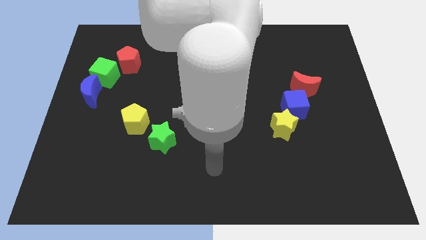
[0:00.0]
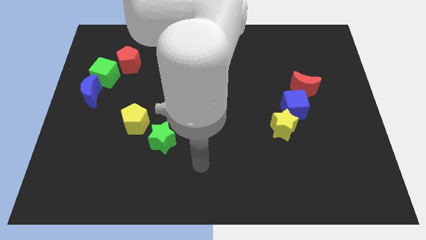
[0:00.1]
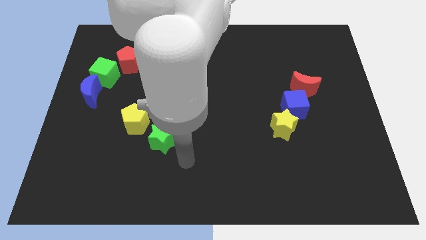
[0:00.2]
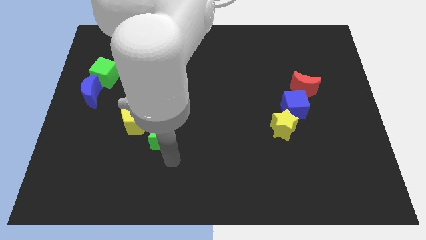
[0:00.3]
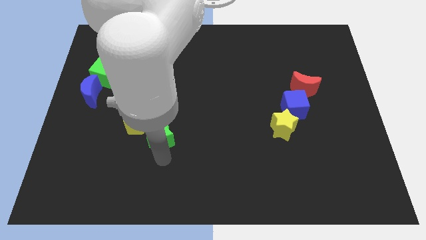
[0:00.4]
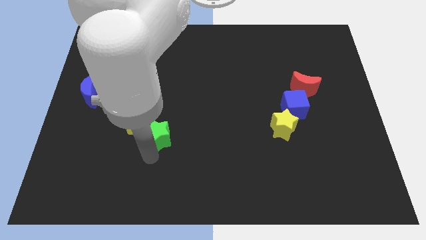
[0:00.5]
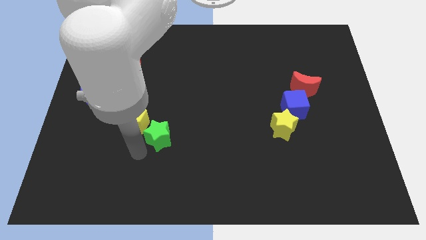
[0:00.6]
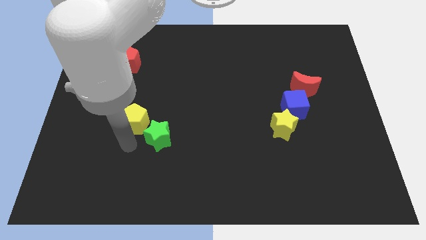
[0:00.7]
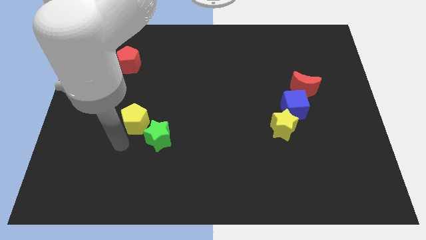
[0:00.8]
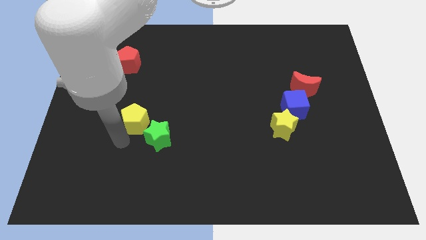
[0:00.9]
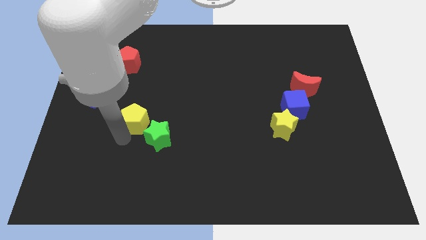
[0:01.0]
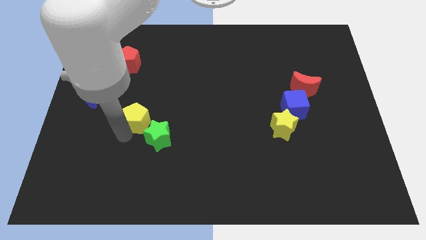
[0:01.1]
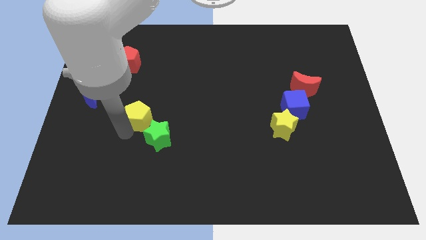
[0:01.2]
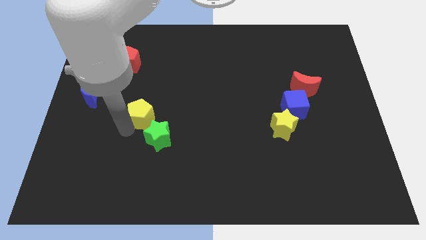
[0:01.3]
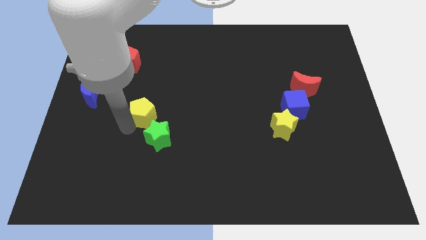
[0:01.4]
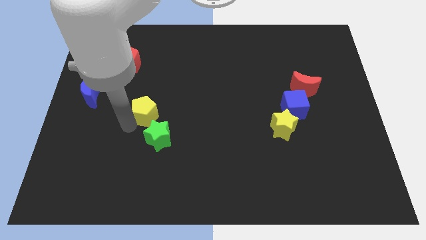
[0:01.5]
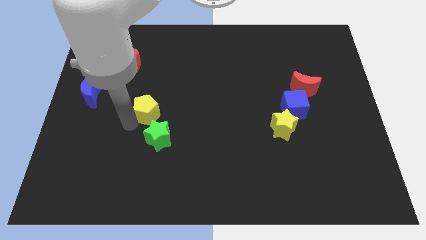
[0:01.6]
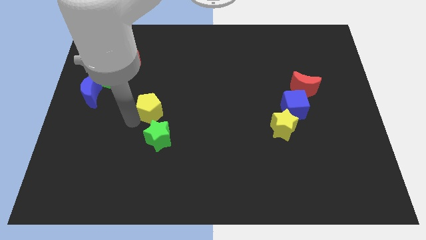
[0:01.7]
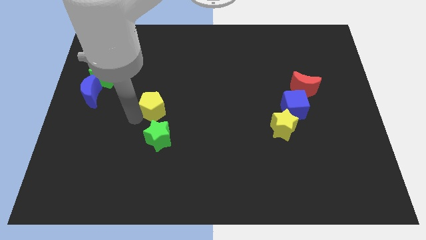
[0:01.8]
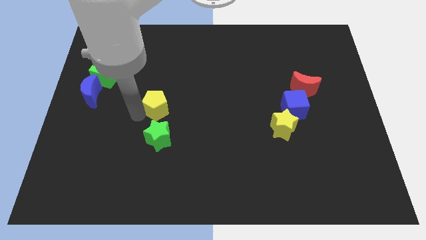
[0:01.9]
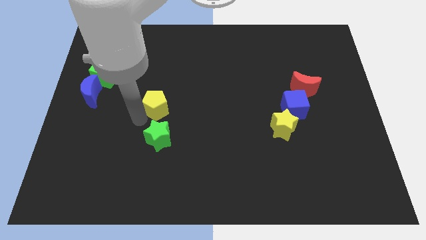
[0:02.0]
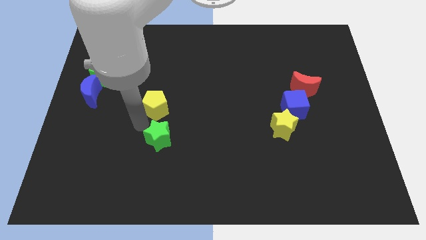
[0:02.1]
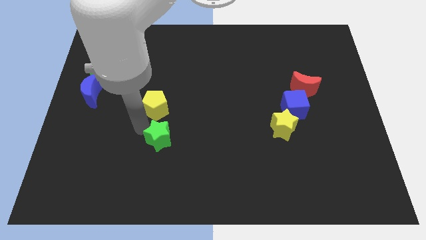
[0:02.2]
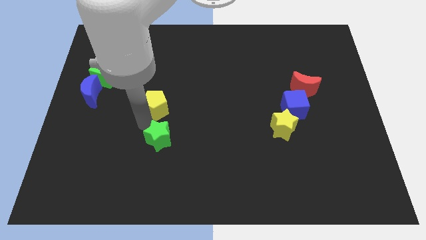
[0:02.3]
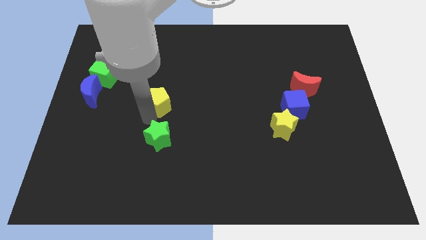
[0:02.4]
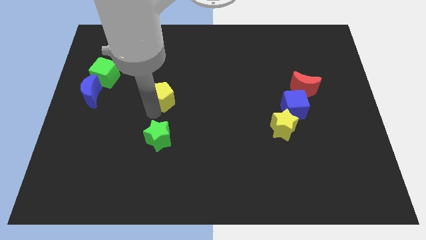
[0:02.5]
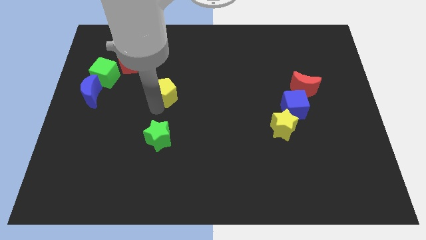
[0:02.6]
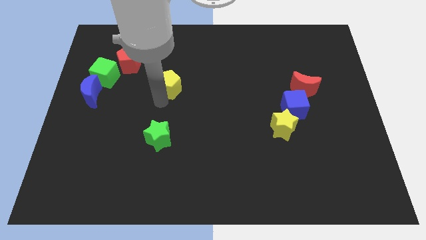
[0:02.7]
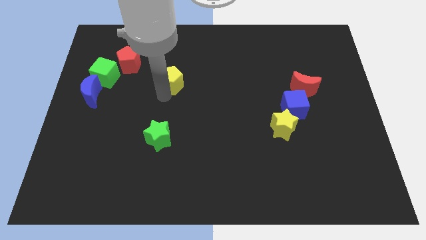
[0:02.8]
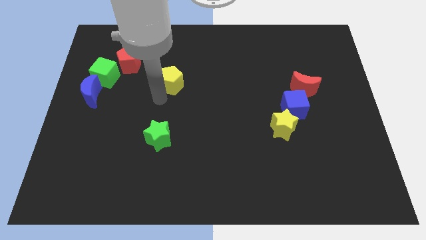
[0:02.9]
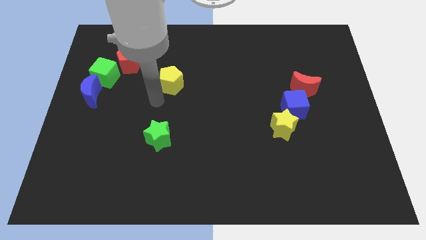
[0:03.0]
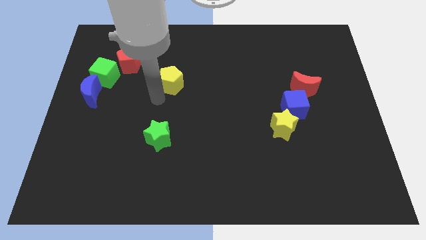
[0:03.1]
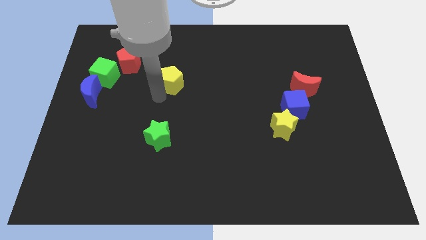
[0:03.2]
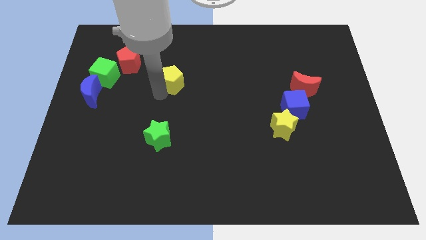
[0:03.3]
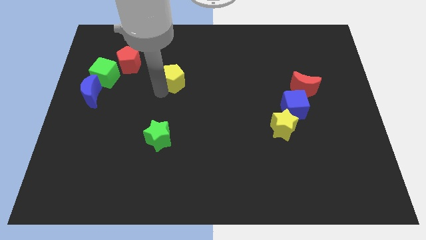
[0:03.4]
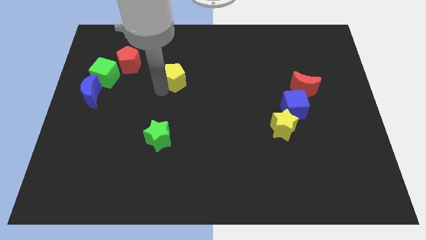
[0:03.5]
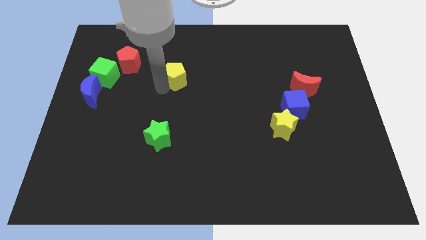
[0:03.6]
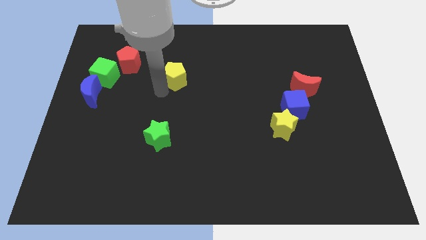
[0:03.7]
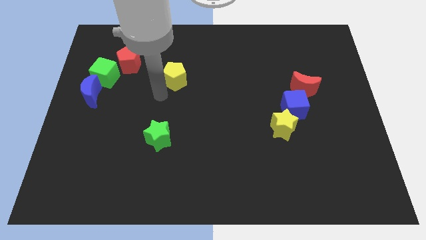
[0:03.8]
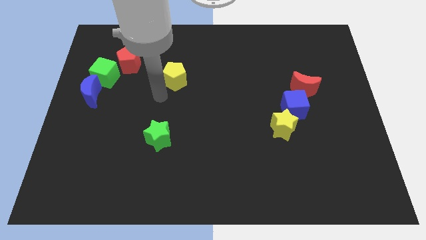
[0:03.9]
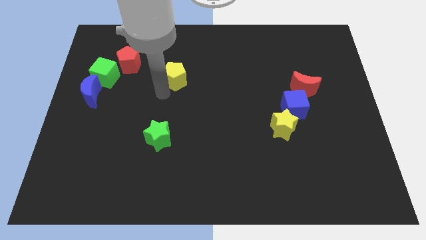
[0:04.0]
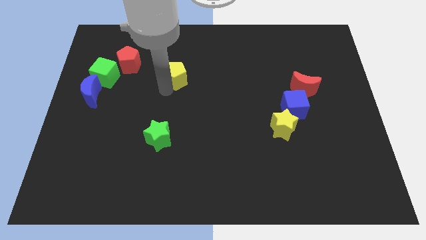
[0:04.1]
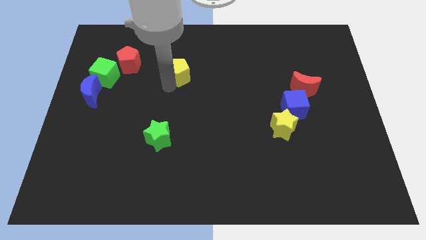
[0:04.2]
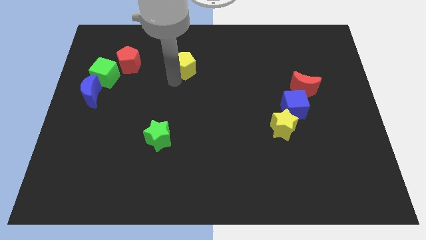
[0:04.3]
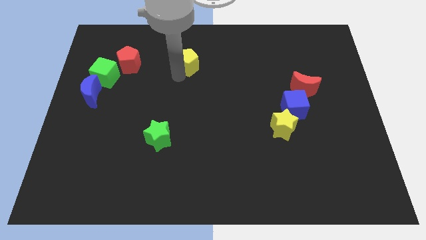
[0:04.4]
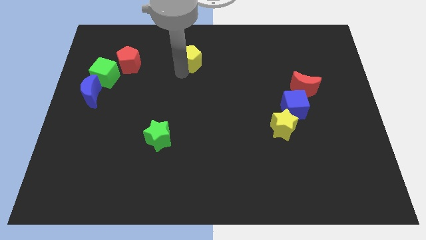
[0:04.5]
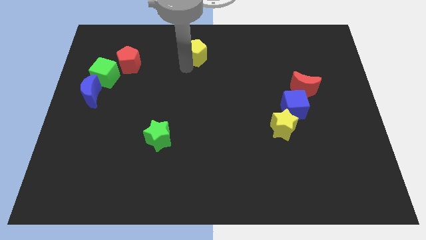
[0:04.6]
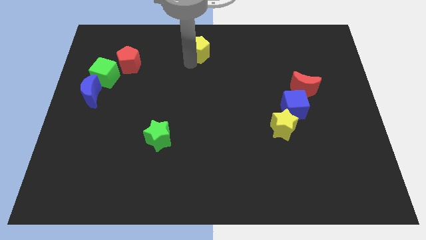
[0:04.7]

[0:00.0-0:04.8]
move the yellow pentagon to the top side

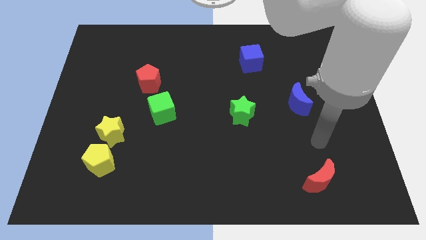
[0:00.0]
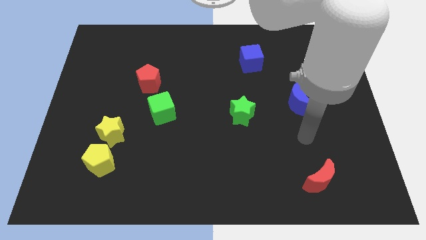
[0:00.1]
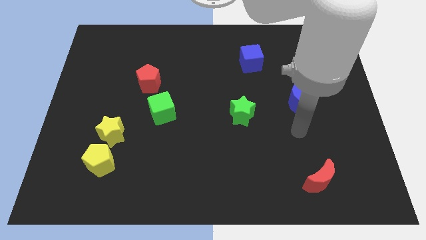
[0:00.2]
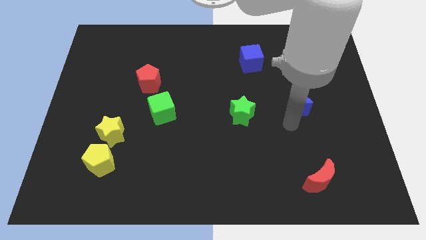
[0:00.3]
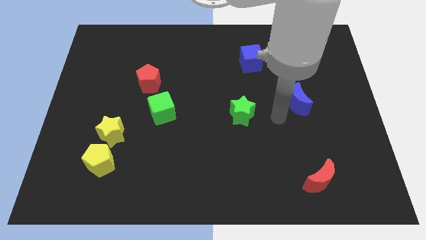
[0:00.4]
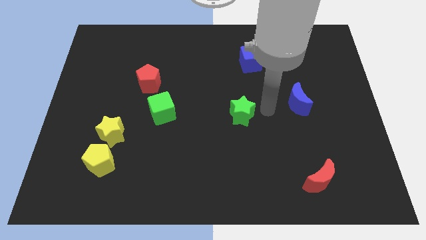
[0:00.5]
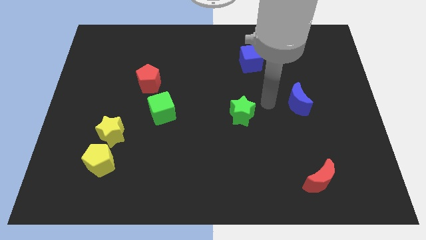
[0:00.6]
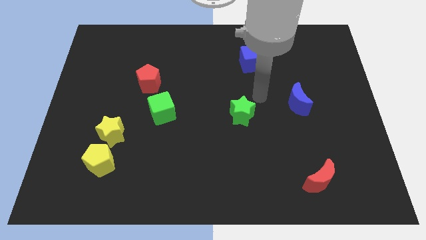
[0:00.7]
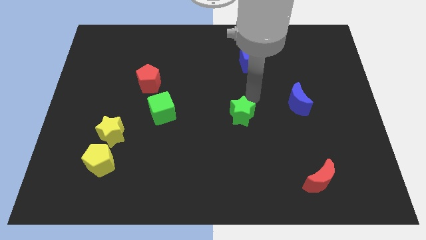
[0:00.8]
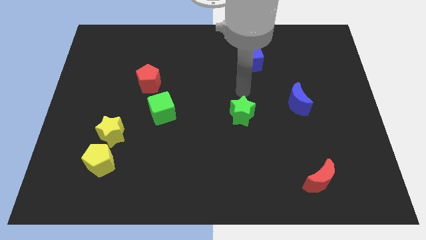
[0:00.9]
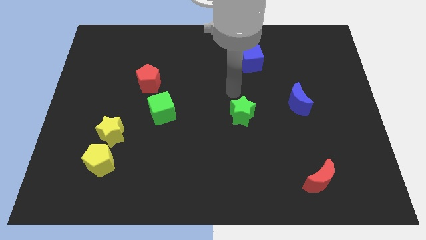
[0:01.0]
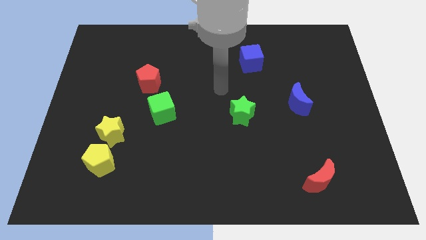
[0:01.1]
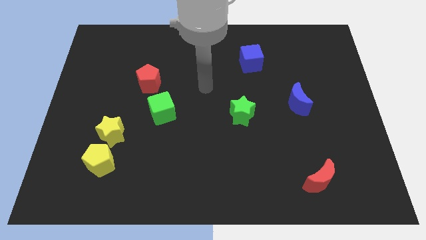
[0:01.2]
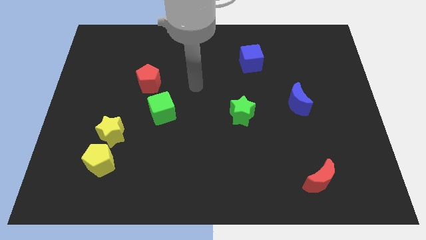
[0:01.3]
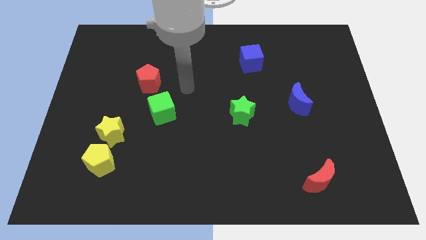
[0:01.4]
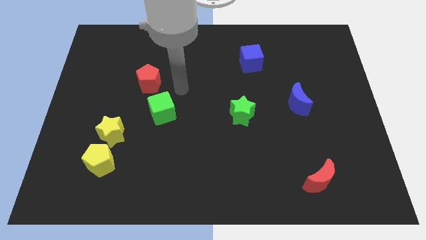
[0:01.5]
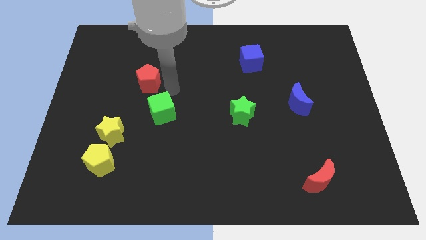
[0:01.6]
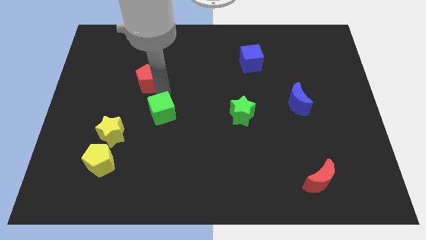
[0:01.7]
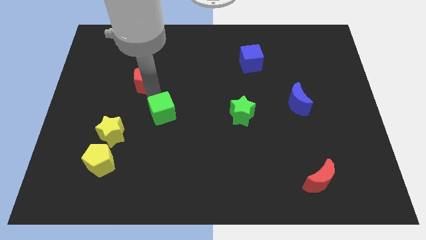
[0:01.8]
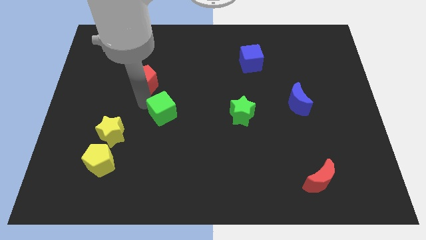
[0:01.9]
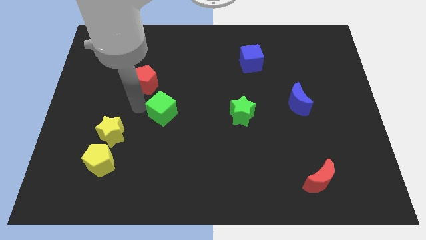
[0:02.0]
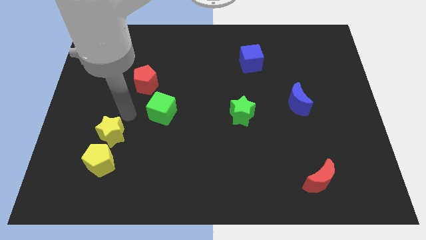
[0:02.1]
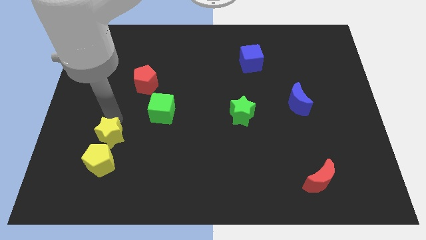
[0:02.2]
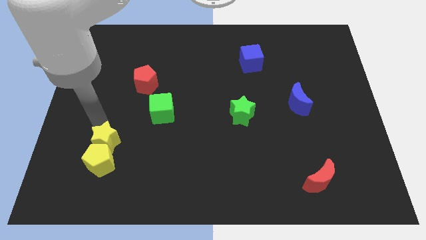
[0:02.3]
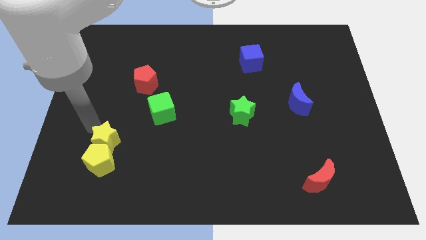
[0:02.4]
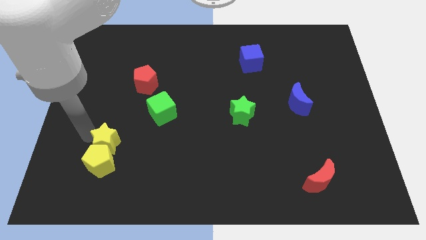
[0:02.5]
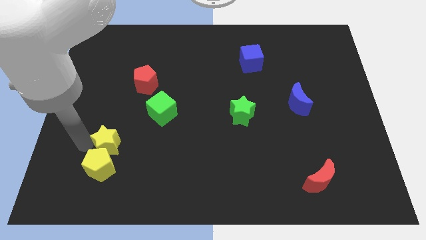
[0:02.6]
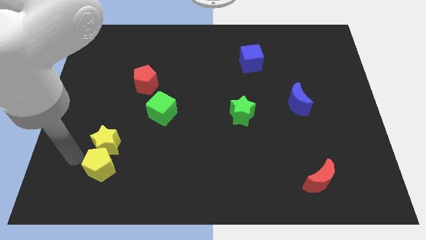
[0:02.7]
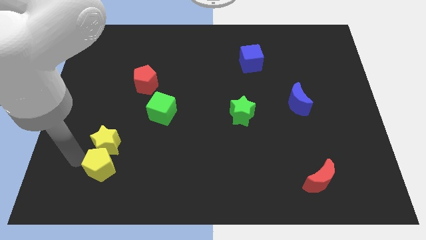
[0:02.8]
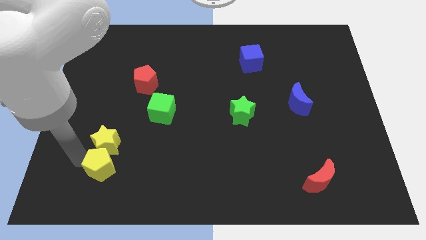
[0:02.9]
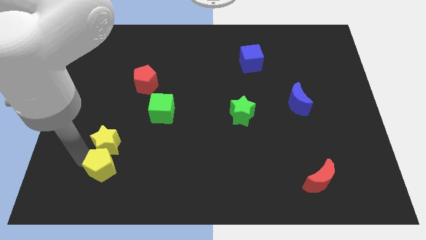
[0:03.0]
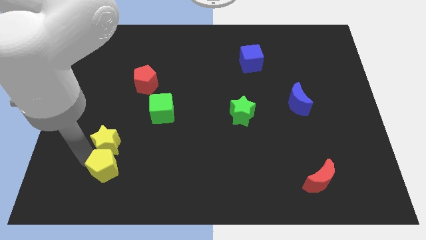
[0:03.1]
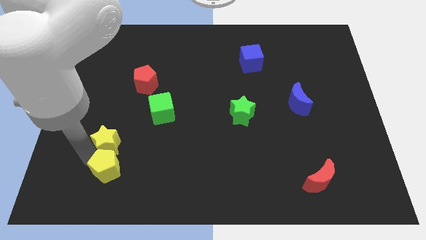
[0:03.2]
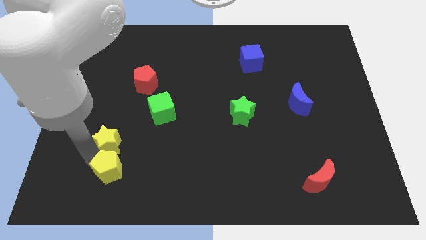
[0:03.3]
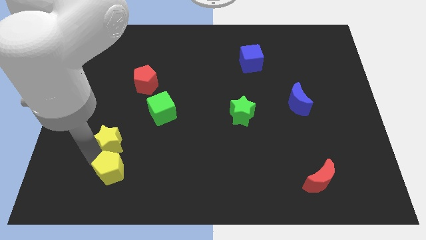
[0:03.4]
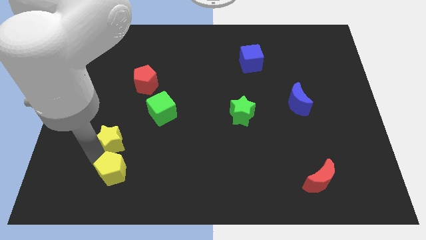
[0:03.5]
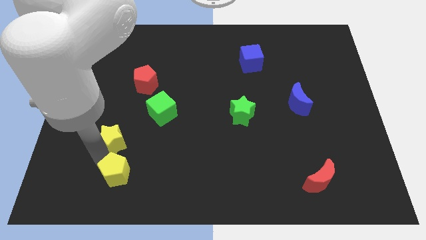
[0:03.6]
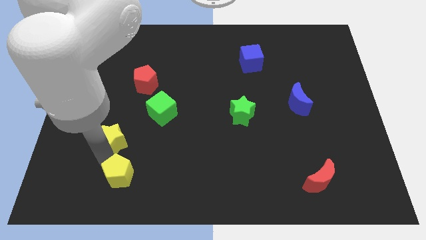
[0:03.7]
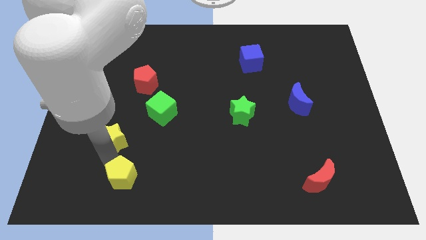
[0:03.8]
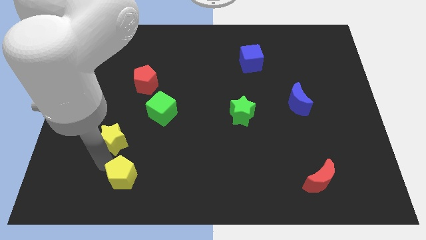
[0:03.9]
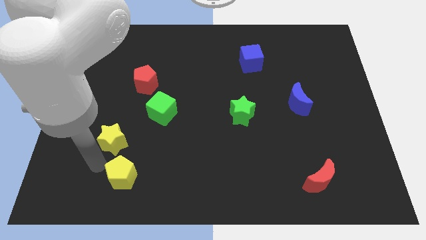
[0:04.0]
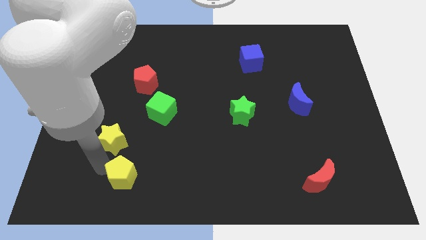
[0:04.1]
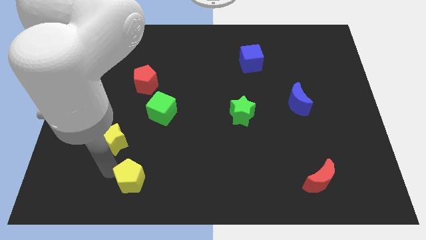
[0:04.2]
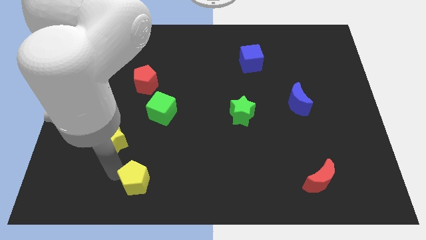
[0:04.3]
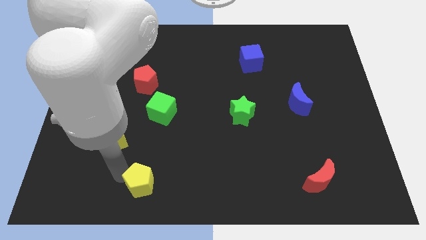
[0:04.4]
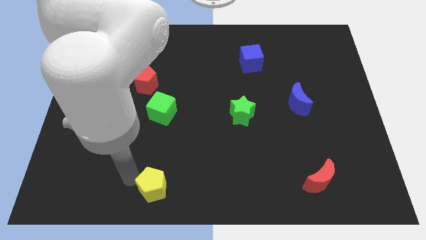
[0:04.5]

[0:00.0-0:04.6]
slide the yellow pentagon to the bottom
